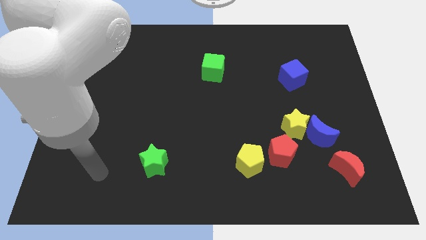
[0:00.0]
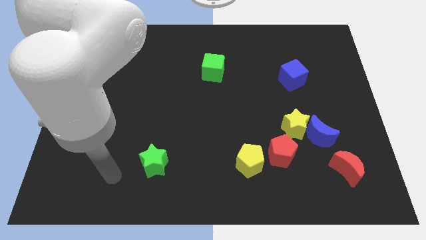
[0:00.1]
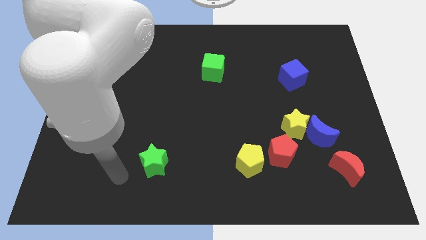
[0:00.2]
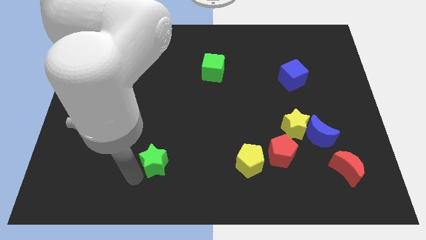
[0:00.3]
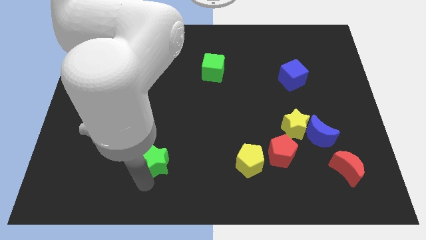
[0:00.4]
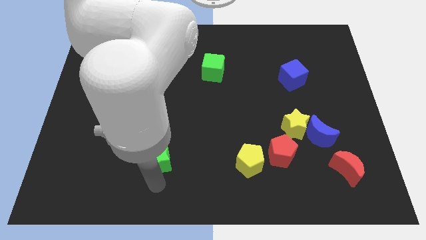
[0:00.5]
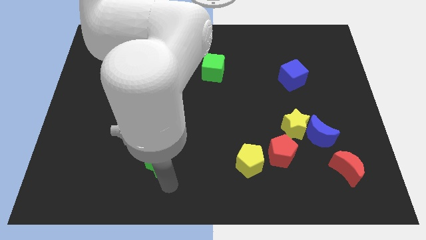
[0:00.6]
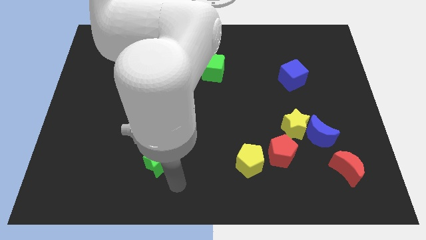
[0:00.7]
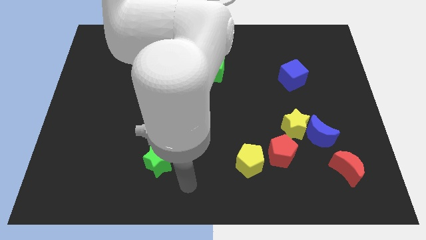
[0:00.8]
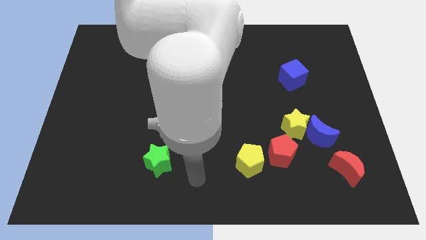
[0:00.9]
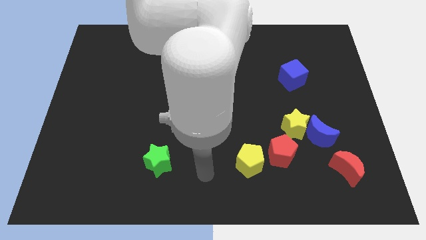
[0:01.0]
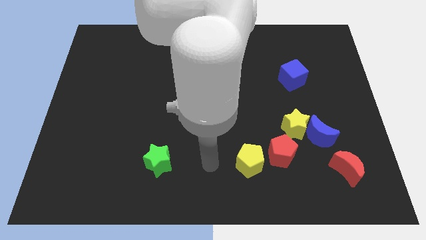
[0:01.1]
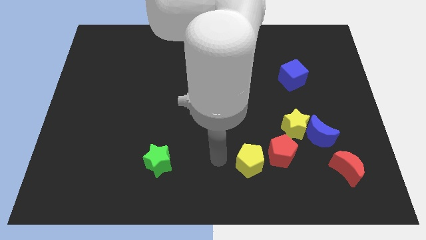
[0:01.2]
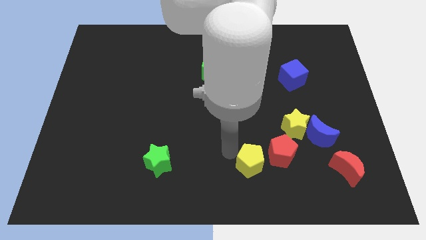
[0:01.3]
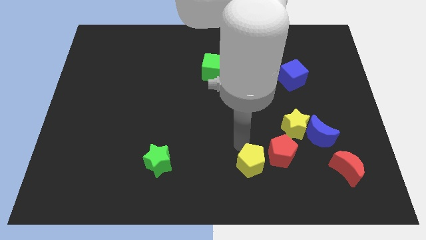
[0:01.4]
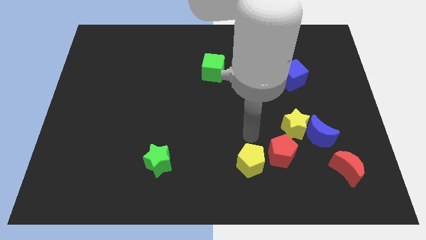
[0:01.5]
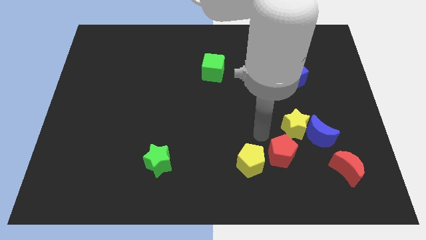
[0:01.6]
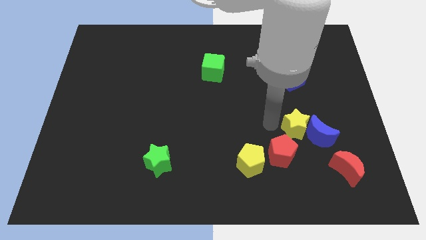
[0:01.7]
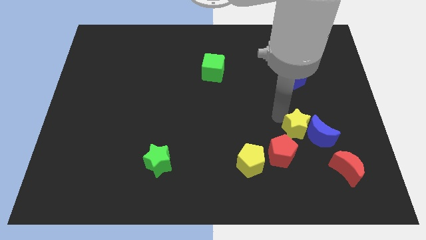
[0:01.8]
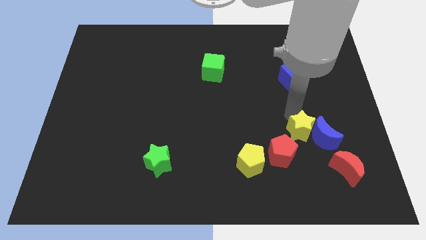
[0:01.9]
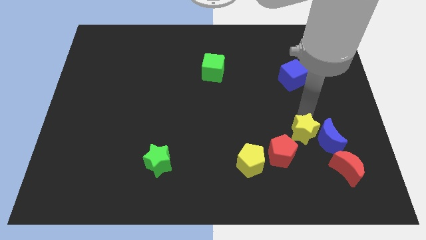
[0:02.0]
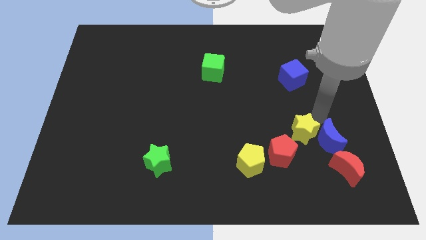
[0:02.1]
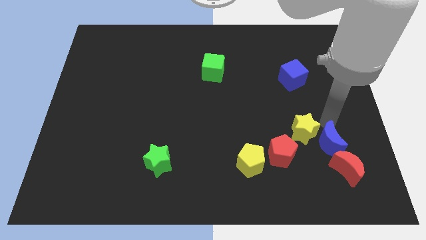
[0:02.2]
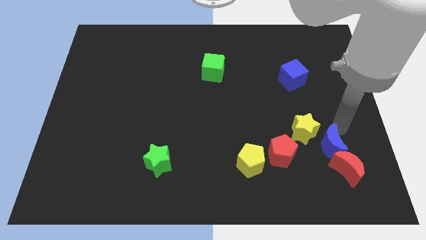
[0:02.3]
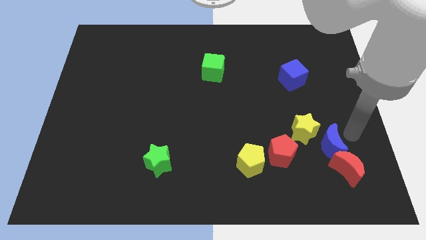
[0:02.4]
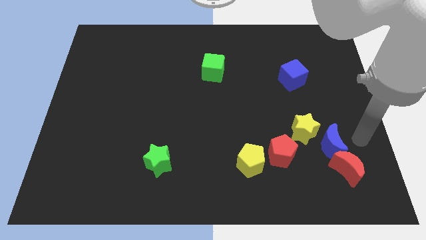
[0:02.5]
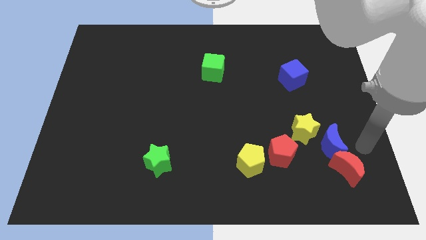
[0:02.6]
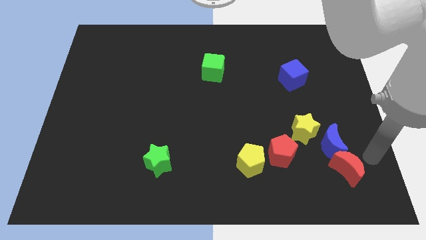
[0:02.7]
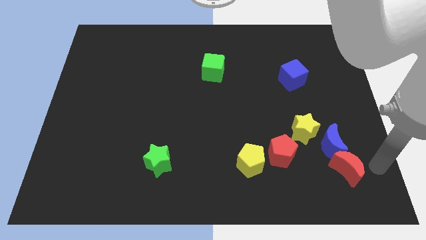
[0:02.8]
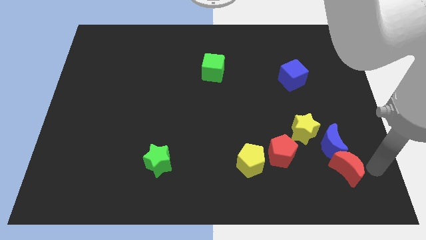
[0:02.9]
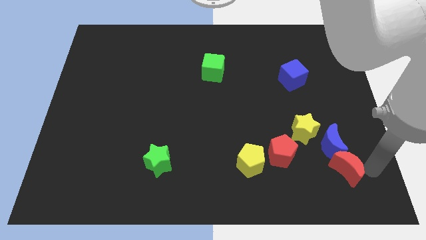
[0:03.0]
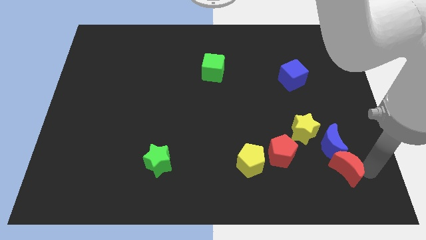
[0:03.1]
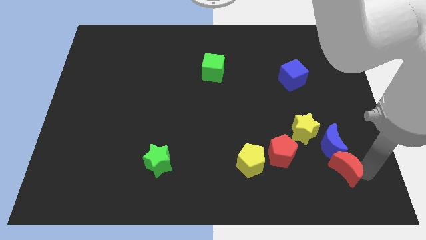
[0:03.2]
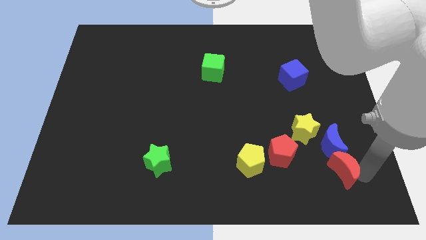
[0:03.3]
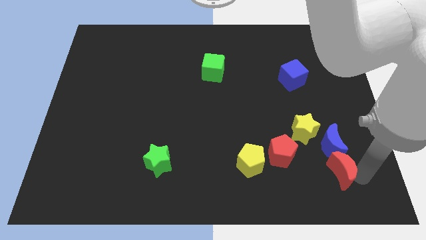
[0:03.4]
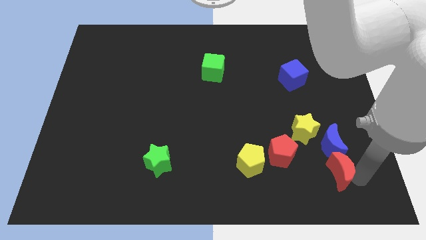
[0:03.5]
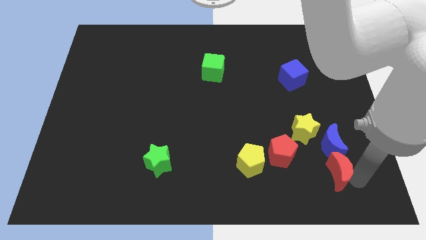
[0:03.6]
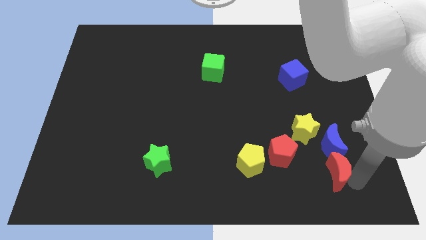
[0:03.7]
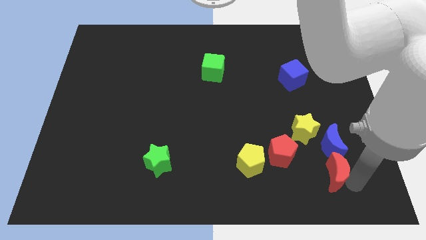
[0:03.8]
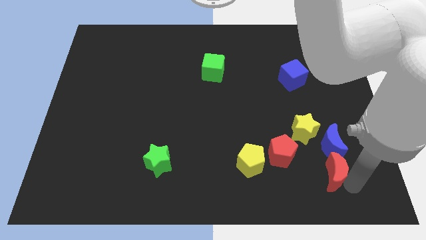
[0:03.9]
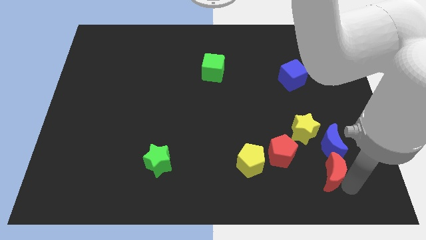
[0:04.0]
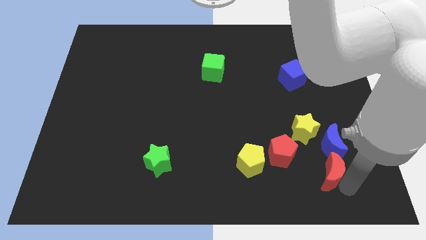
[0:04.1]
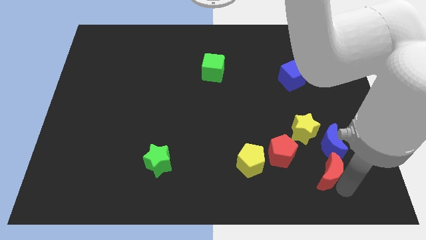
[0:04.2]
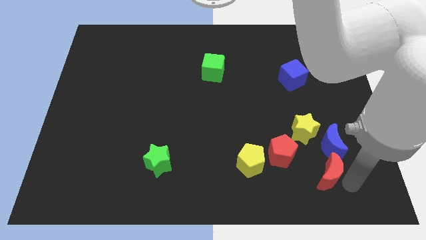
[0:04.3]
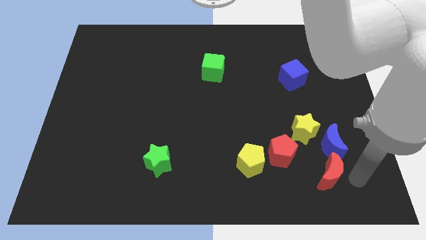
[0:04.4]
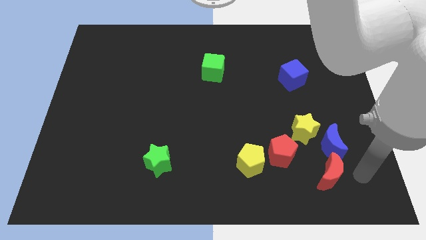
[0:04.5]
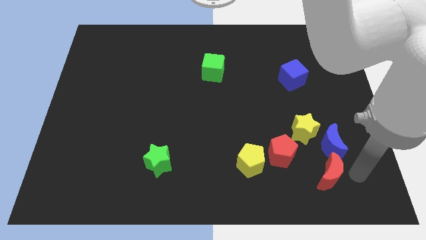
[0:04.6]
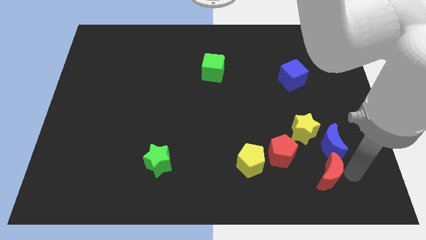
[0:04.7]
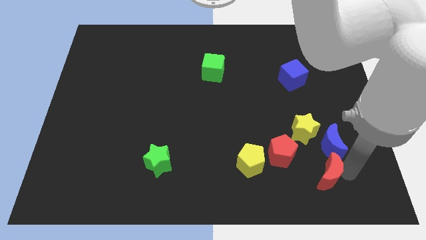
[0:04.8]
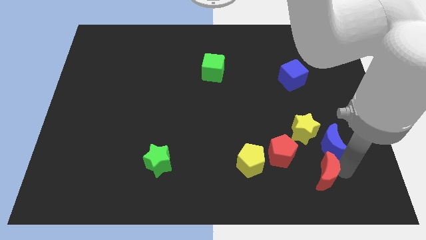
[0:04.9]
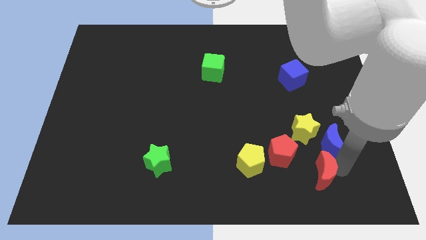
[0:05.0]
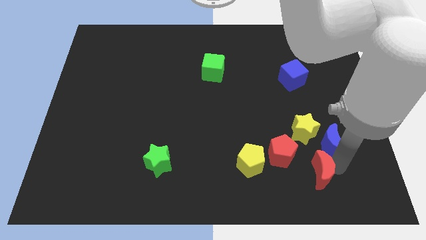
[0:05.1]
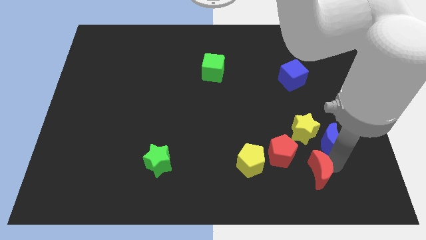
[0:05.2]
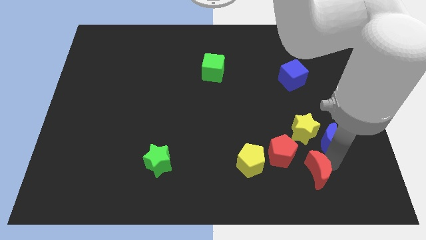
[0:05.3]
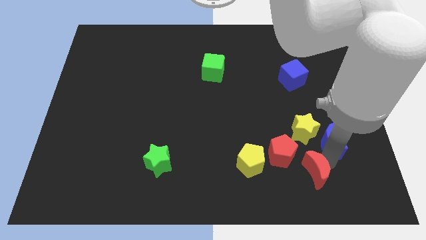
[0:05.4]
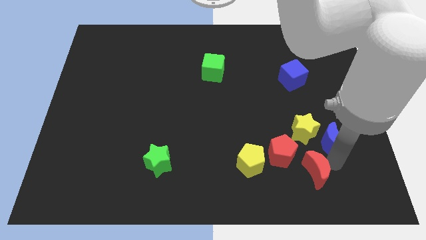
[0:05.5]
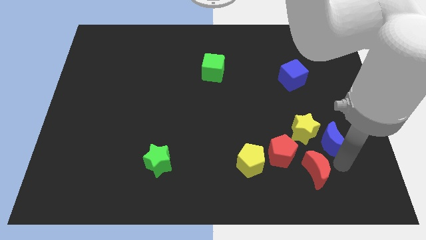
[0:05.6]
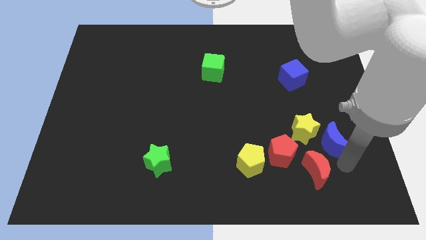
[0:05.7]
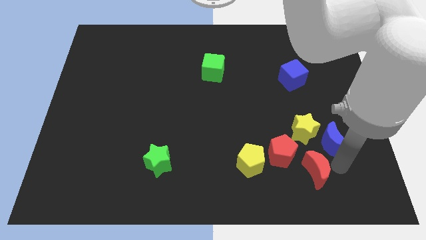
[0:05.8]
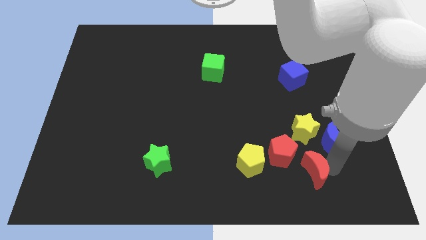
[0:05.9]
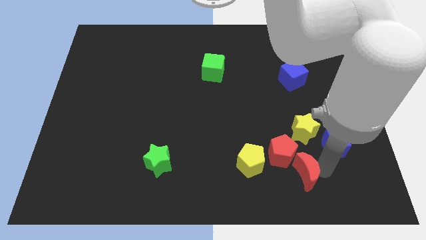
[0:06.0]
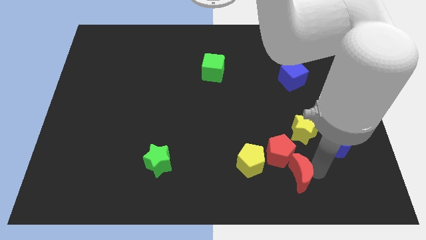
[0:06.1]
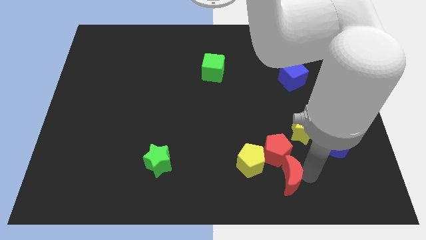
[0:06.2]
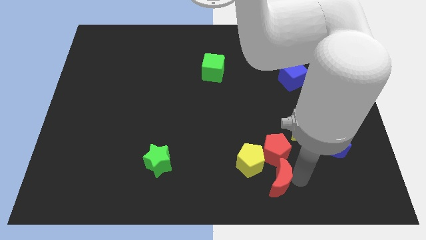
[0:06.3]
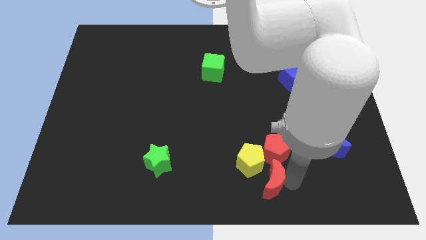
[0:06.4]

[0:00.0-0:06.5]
put the red moon diagonally down and to the left of the red pentagon
